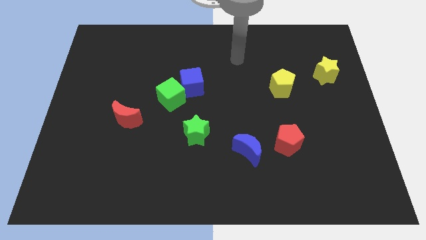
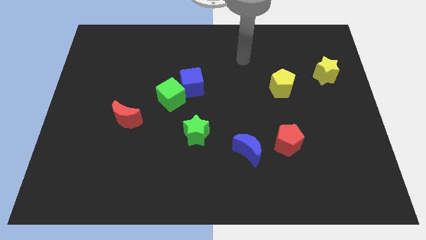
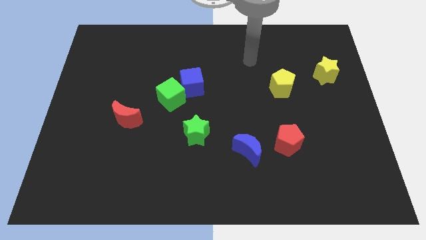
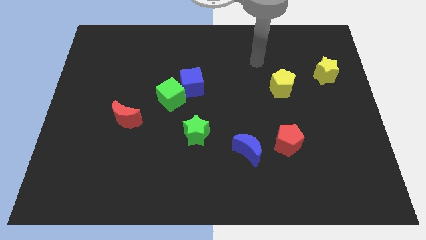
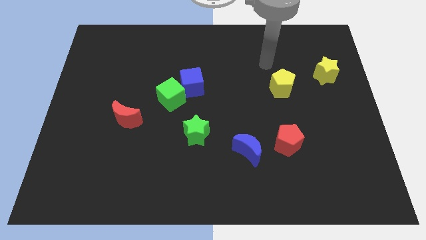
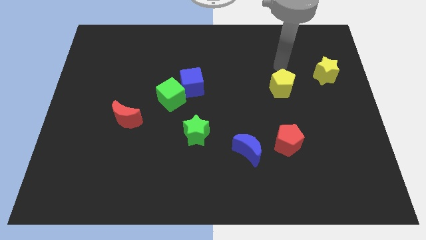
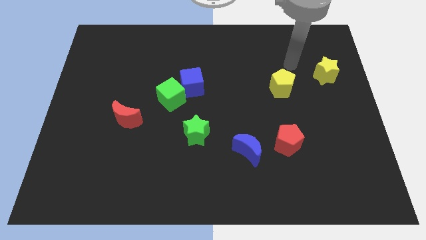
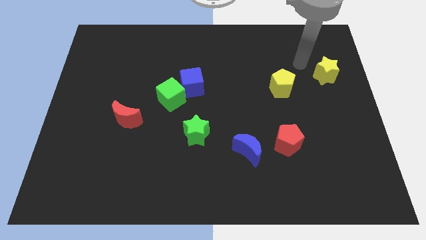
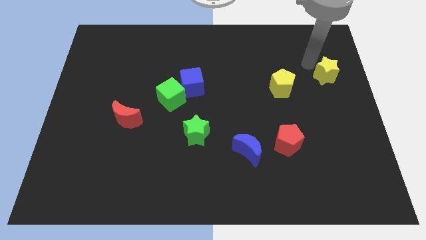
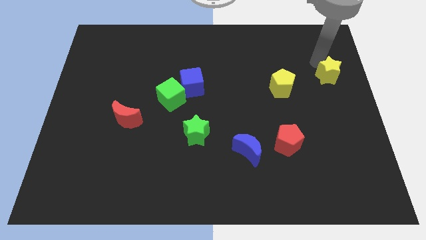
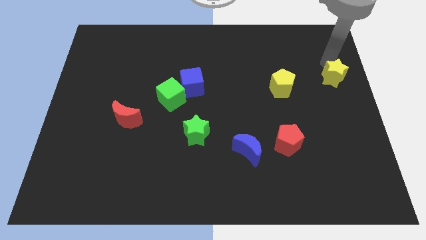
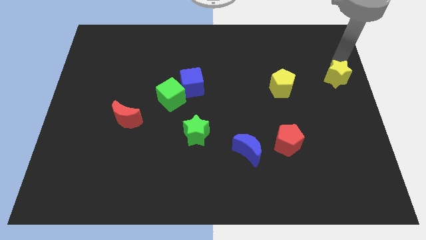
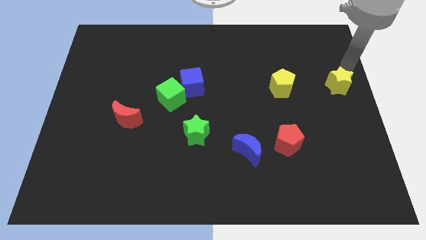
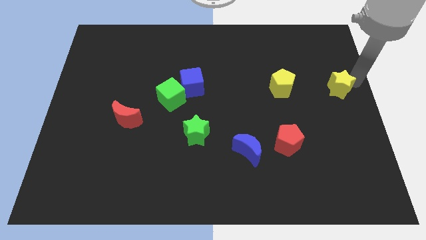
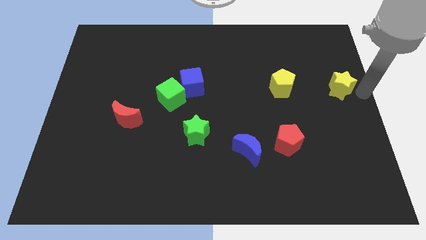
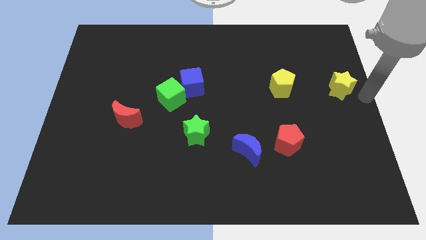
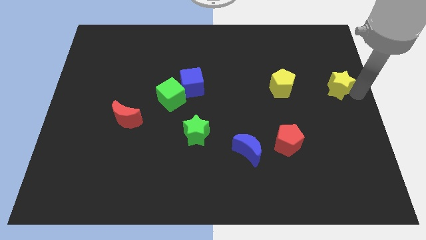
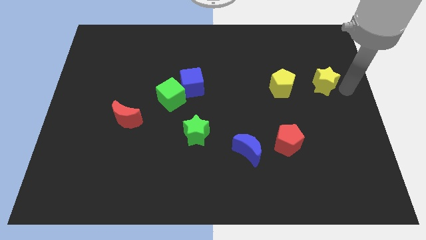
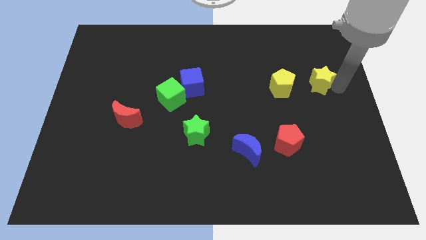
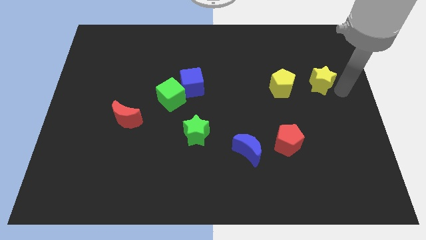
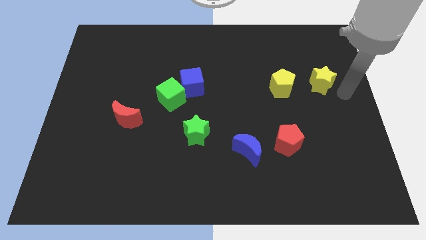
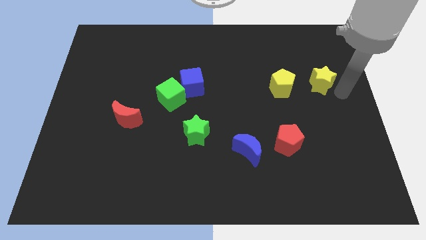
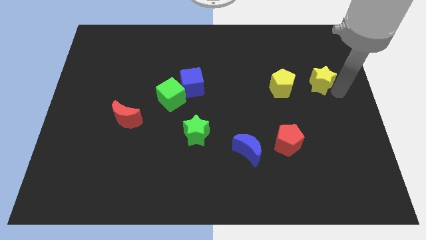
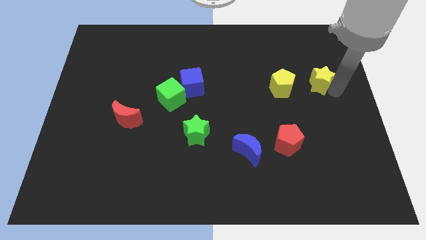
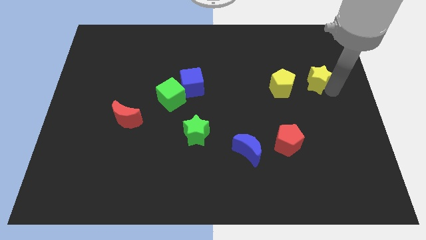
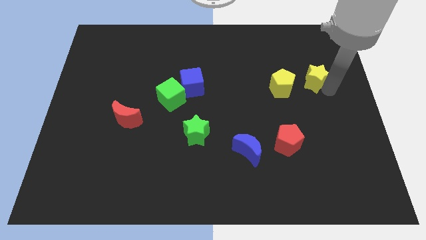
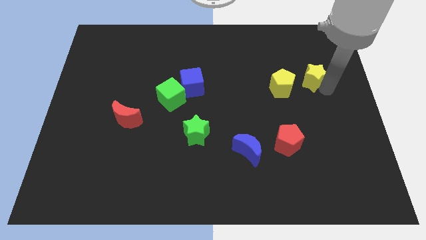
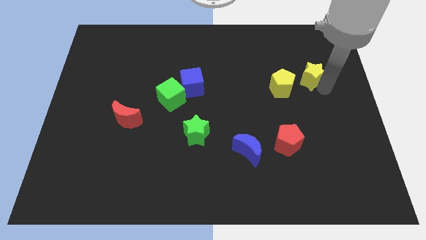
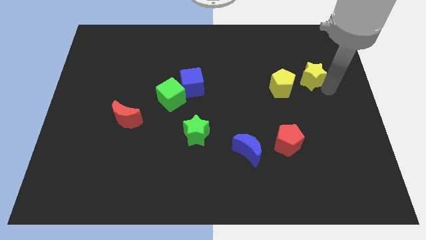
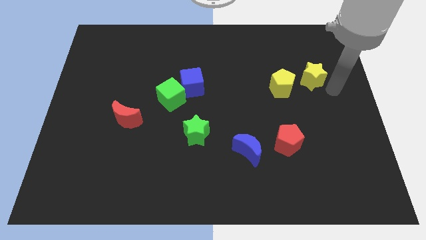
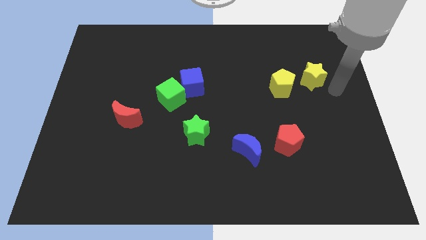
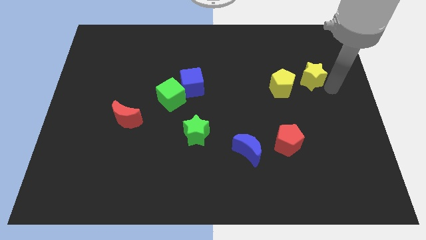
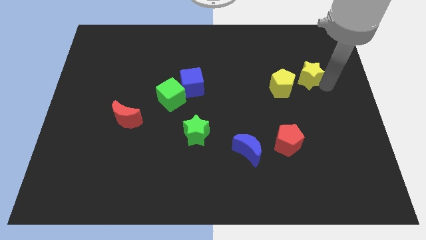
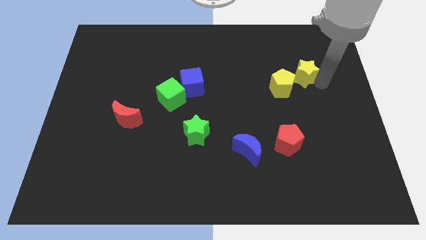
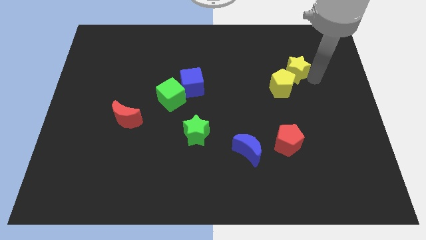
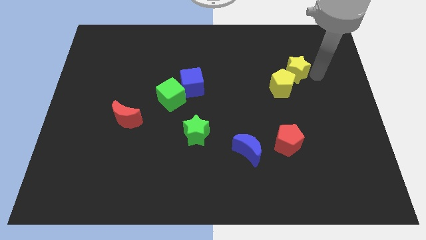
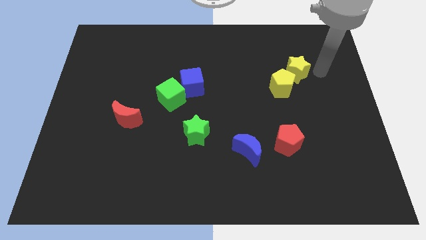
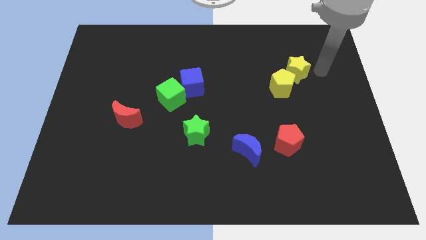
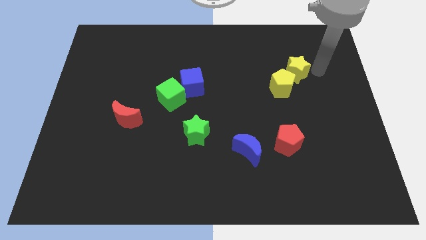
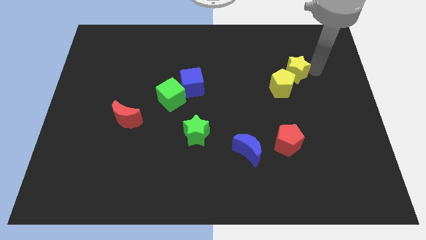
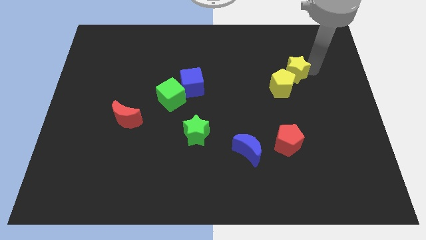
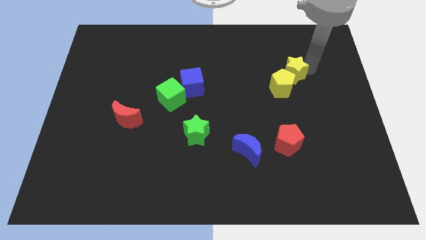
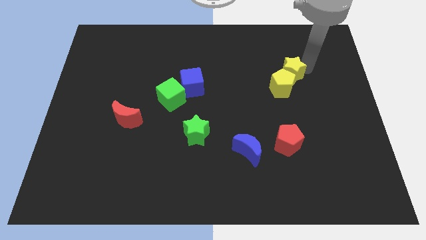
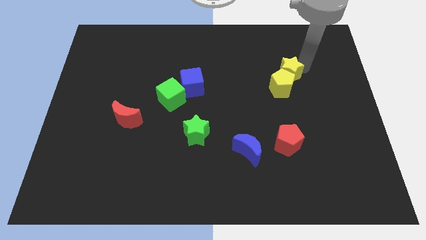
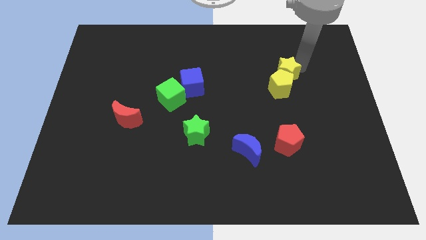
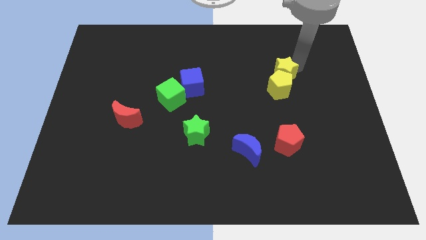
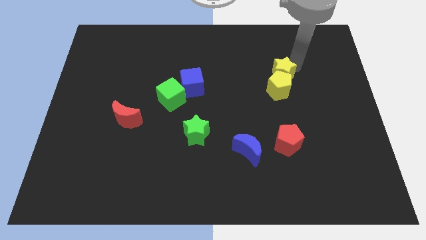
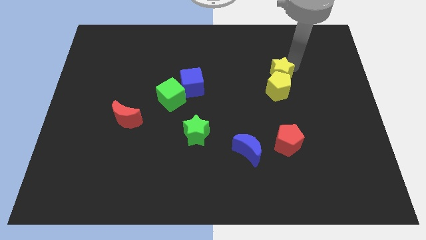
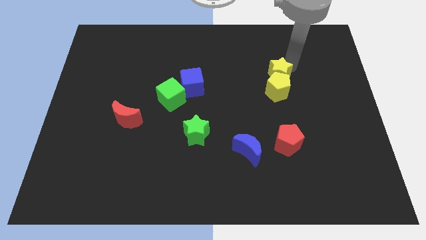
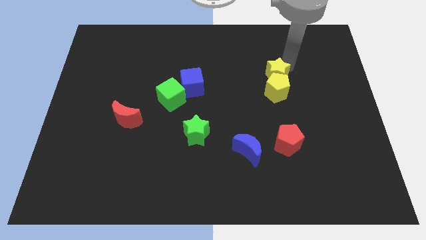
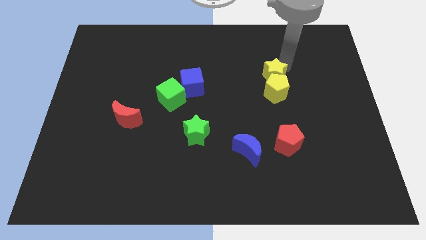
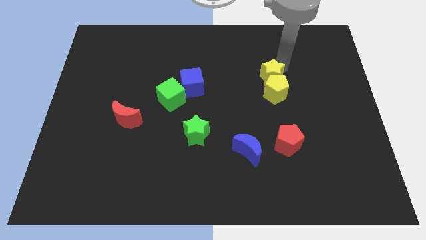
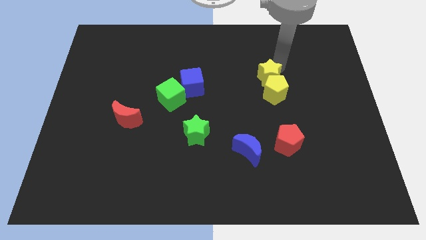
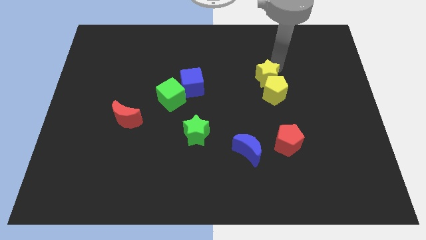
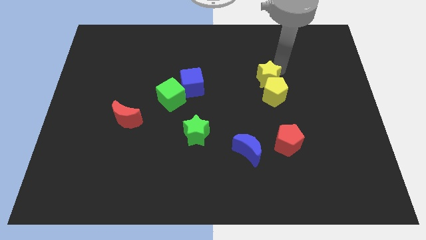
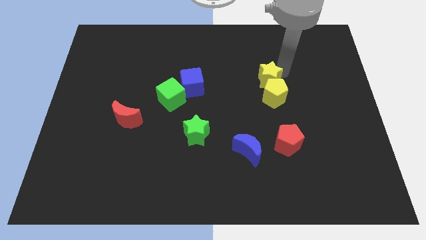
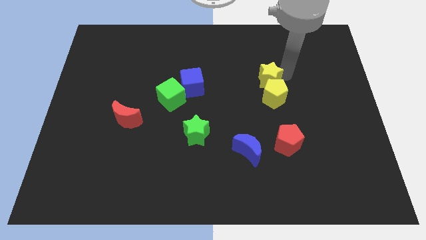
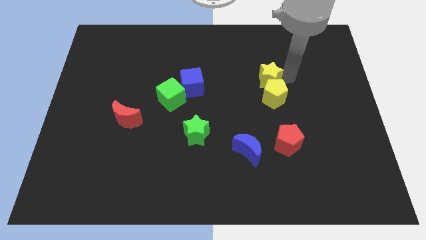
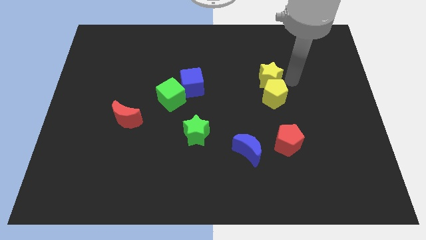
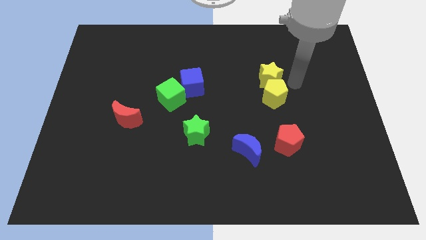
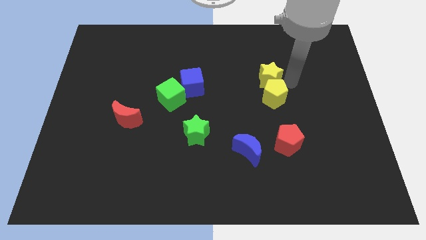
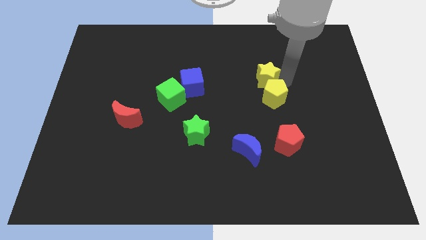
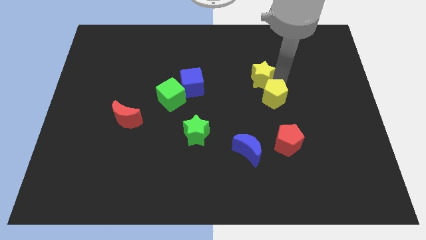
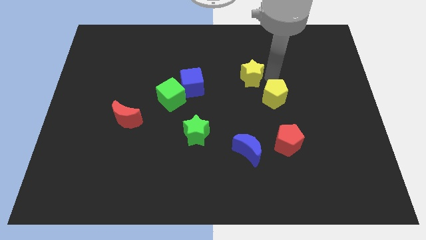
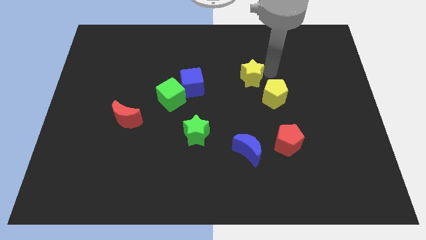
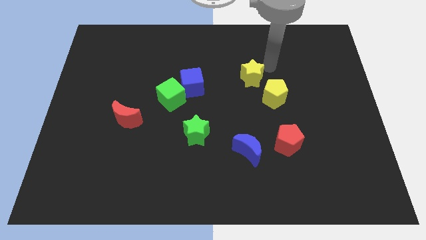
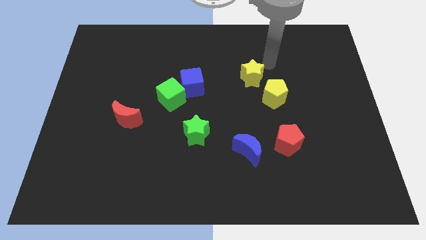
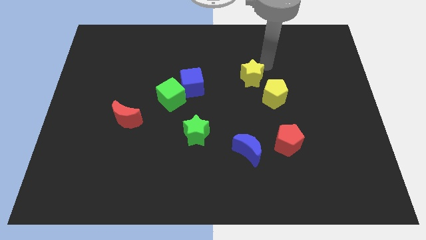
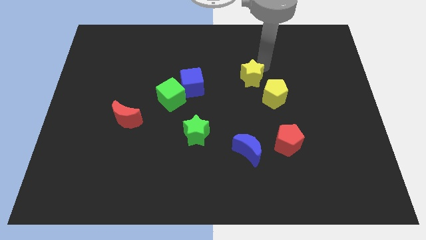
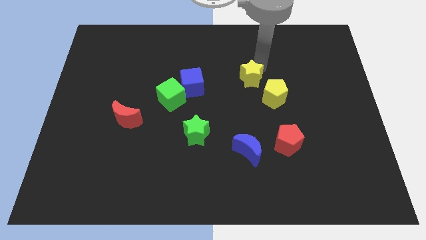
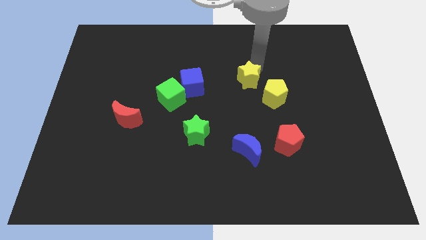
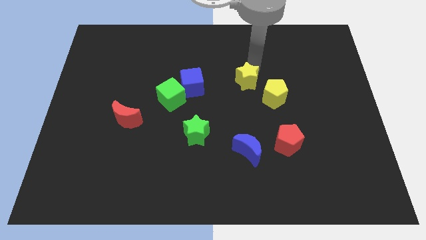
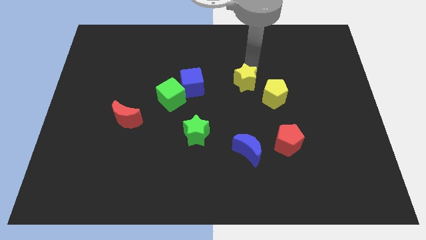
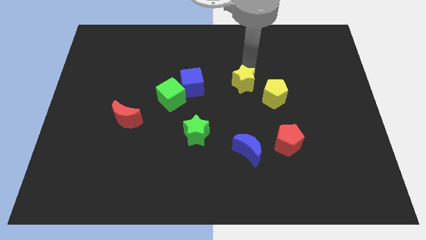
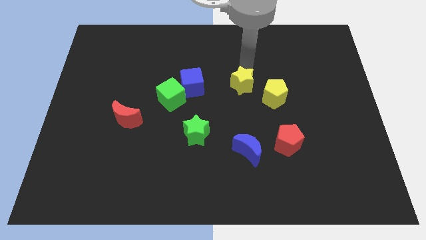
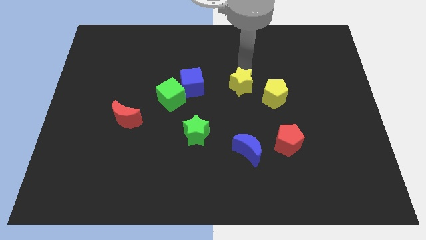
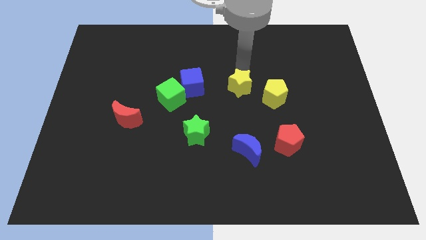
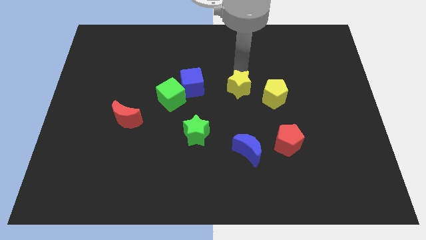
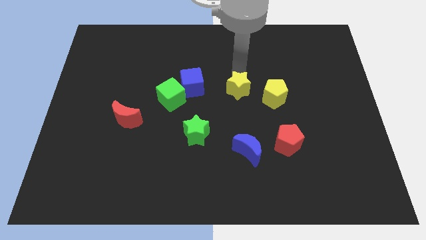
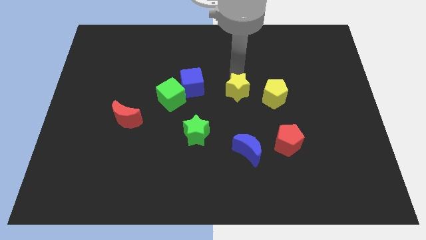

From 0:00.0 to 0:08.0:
push the yellow star to the right of the green cube
